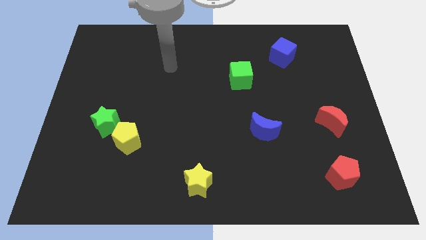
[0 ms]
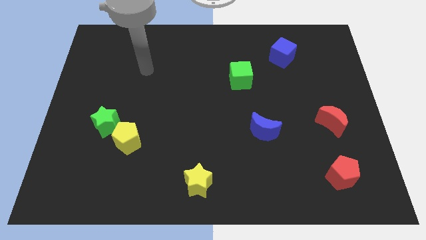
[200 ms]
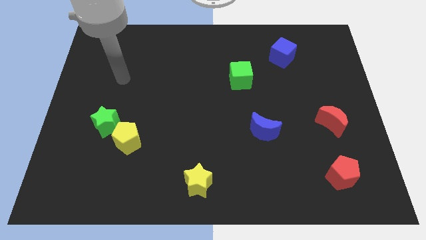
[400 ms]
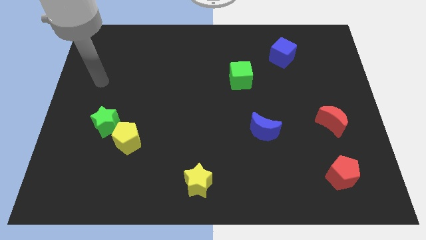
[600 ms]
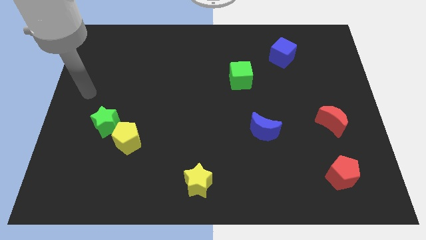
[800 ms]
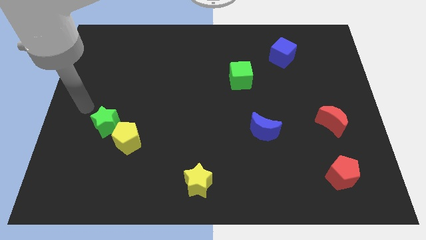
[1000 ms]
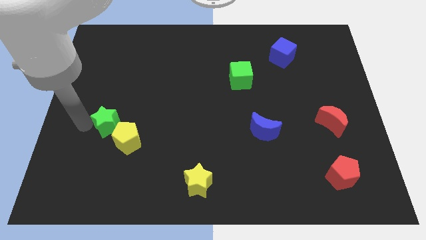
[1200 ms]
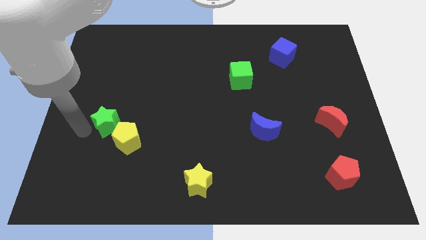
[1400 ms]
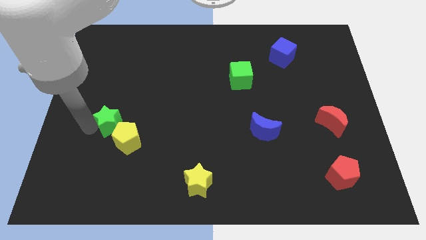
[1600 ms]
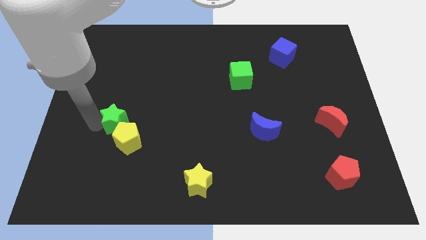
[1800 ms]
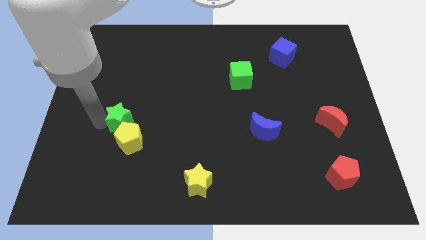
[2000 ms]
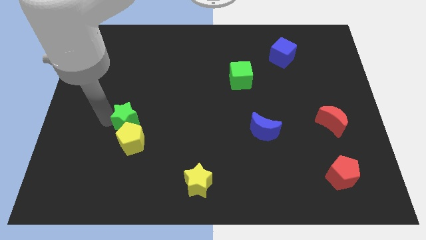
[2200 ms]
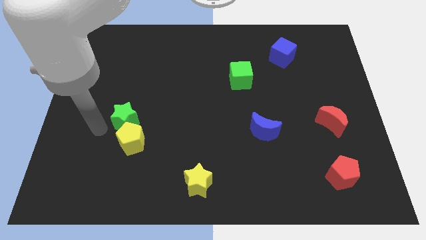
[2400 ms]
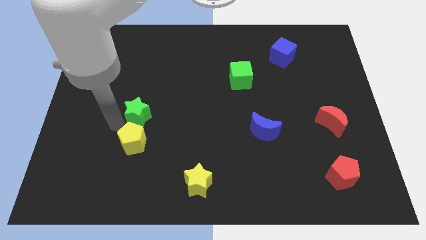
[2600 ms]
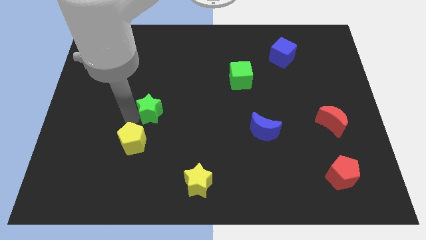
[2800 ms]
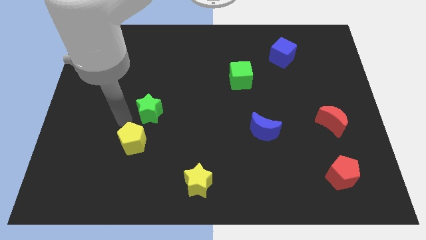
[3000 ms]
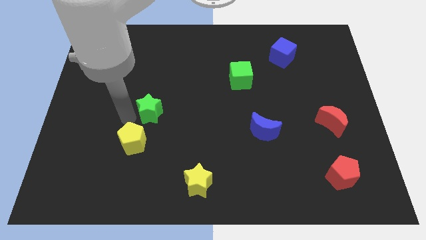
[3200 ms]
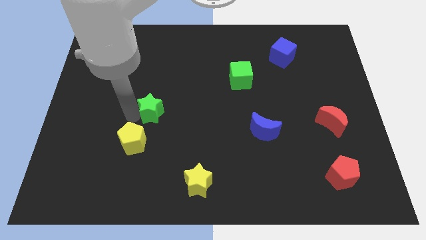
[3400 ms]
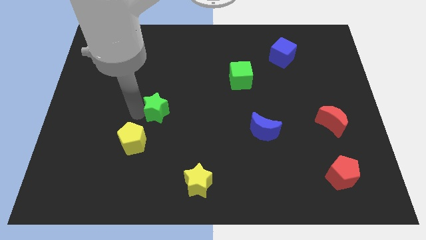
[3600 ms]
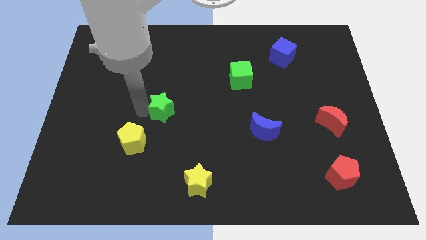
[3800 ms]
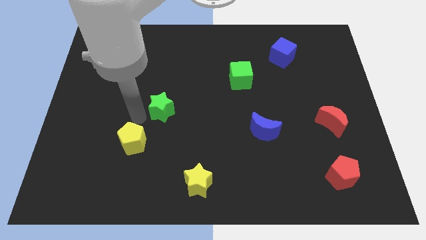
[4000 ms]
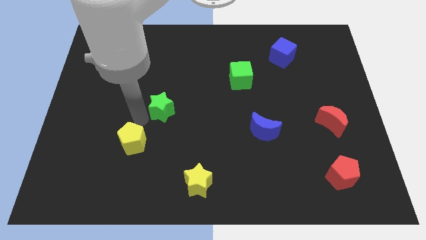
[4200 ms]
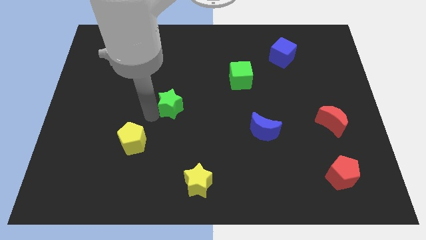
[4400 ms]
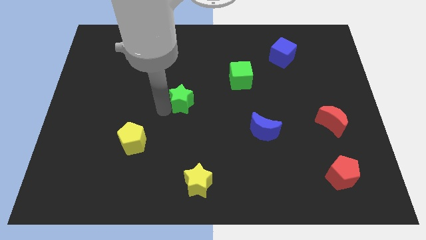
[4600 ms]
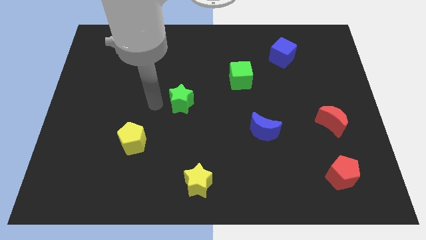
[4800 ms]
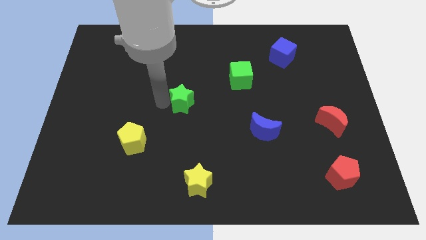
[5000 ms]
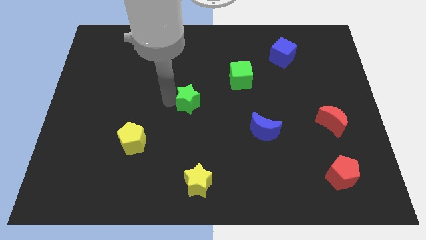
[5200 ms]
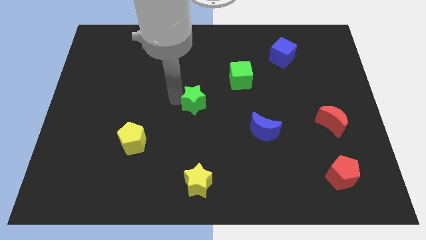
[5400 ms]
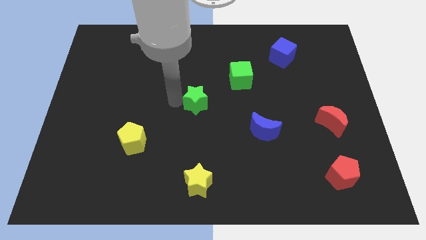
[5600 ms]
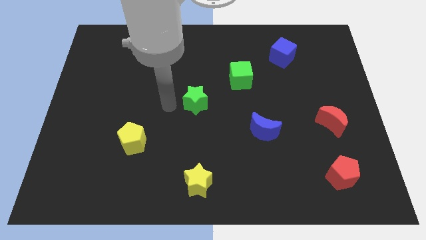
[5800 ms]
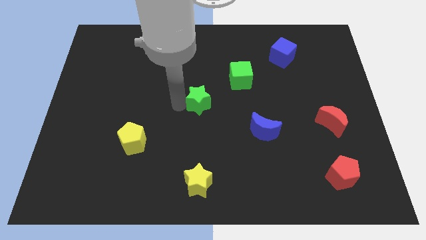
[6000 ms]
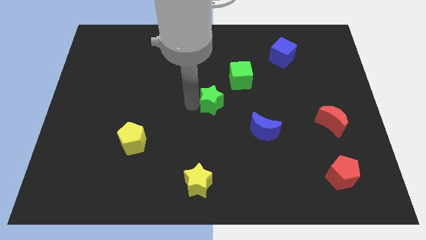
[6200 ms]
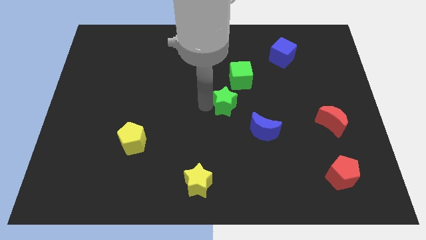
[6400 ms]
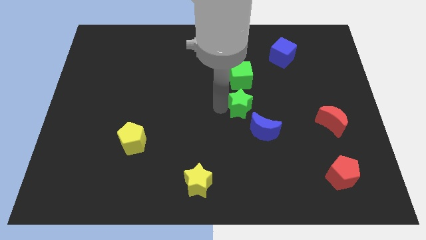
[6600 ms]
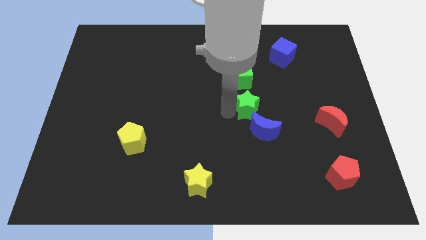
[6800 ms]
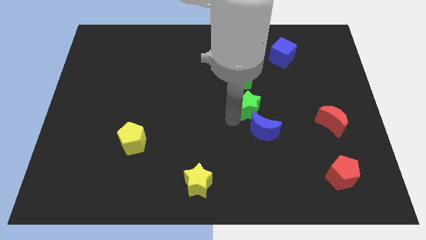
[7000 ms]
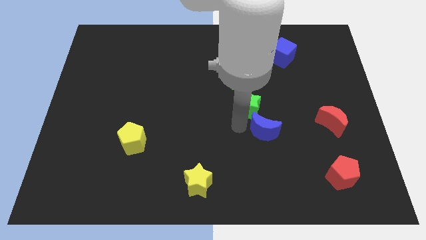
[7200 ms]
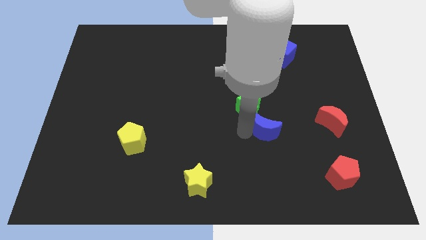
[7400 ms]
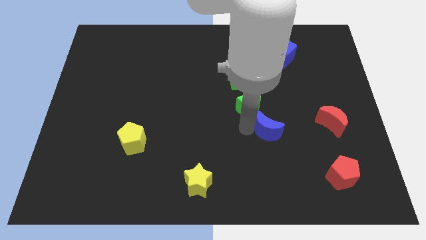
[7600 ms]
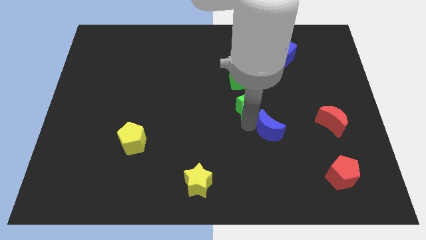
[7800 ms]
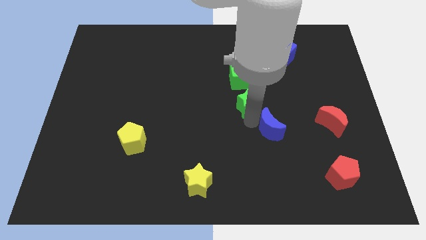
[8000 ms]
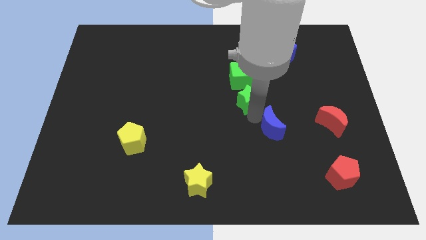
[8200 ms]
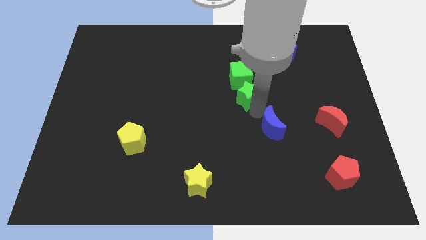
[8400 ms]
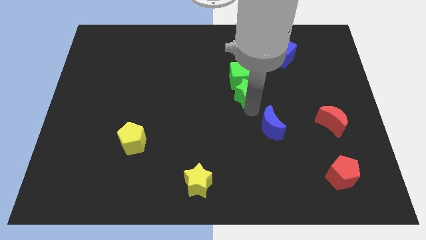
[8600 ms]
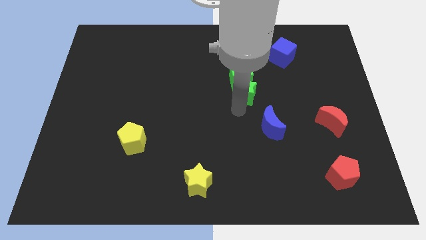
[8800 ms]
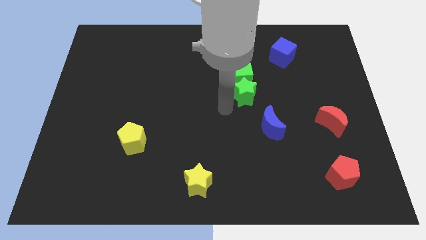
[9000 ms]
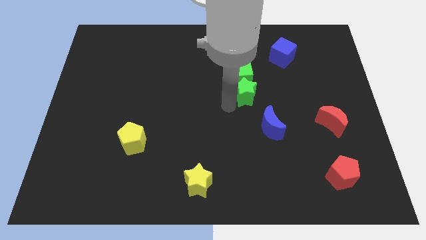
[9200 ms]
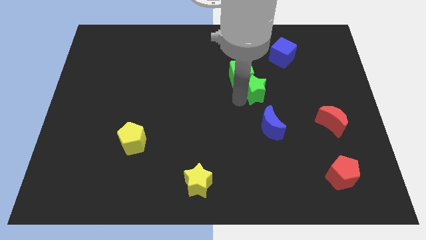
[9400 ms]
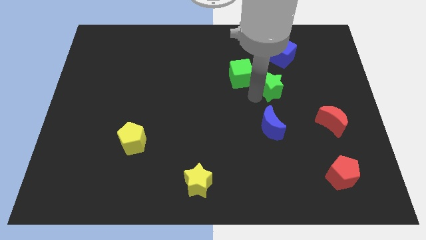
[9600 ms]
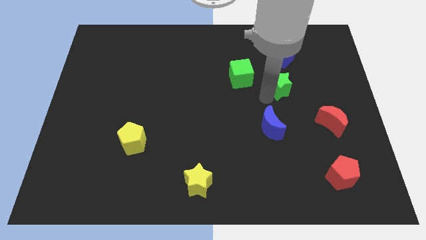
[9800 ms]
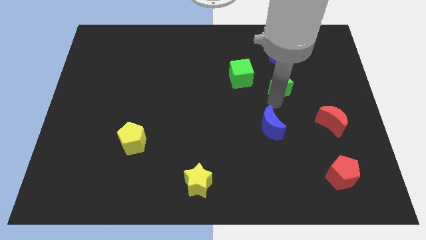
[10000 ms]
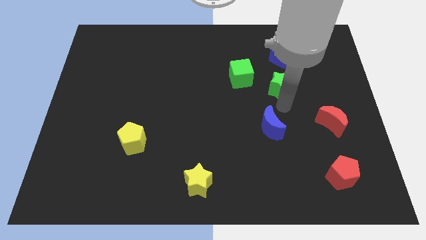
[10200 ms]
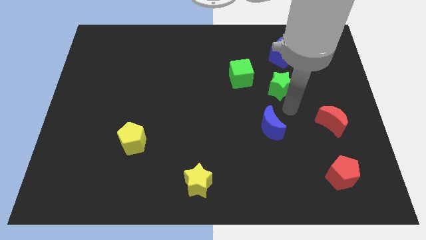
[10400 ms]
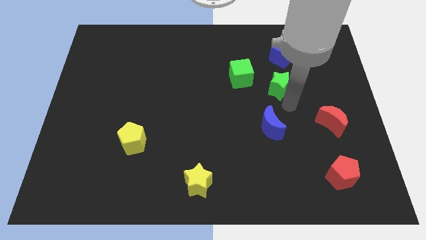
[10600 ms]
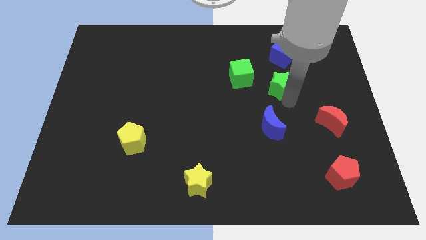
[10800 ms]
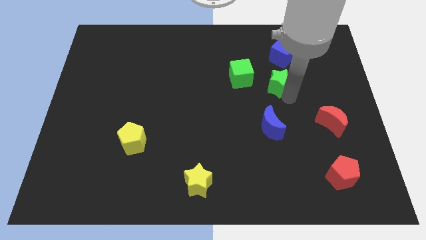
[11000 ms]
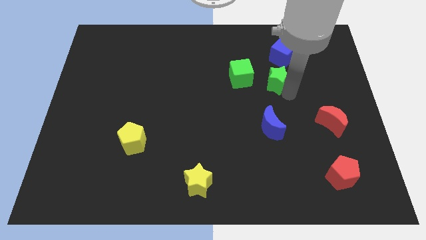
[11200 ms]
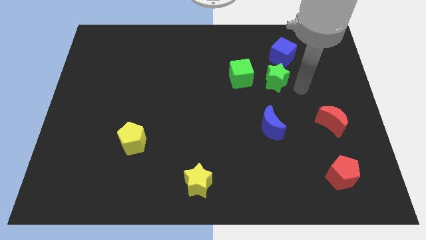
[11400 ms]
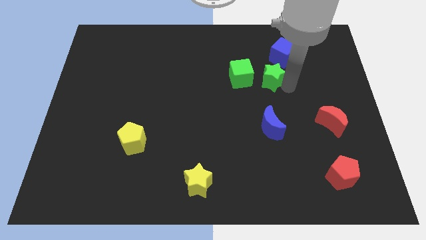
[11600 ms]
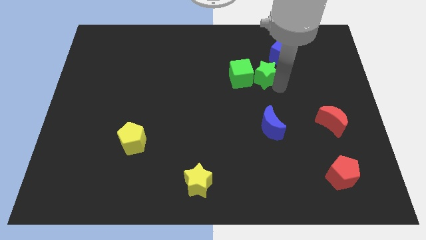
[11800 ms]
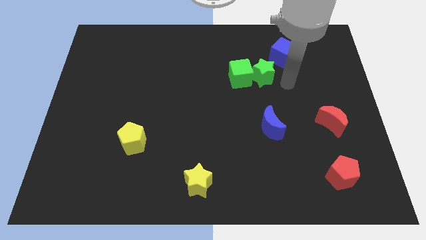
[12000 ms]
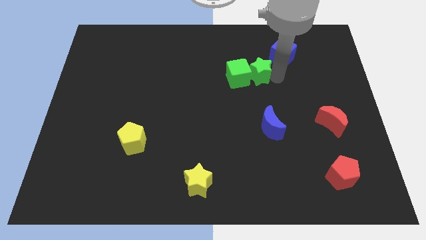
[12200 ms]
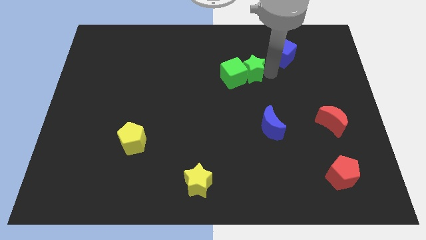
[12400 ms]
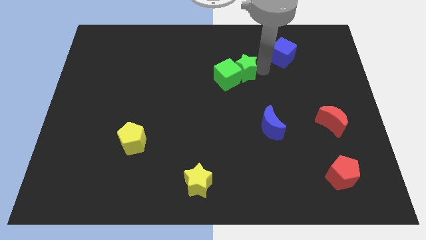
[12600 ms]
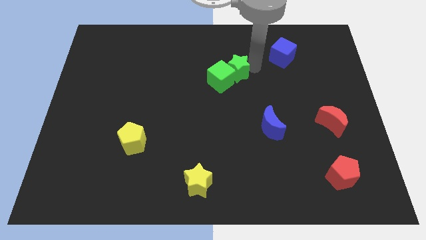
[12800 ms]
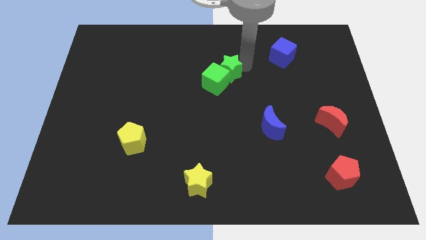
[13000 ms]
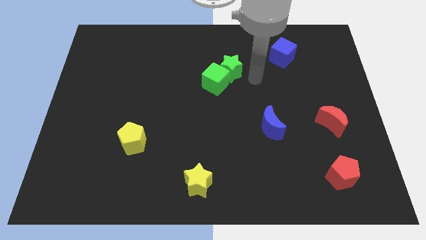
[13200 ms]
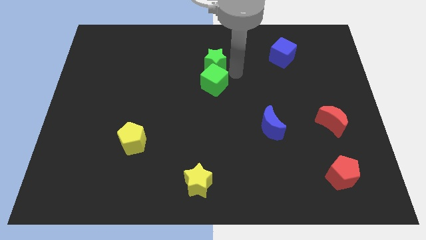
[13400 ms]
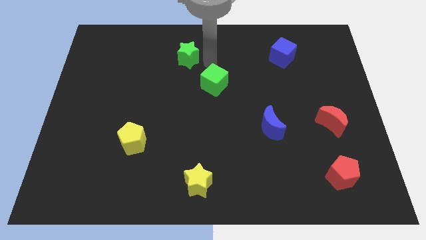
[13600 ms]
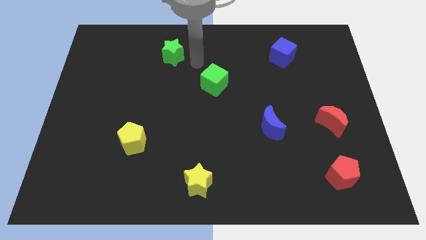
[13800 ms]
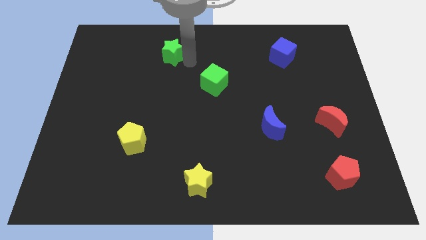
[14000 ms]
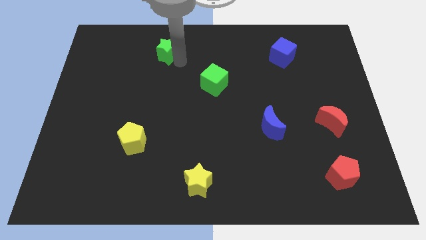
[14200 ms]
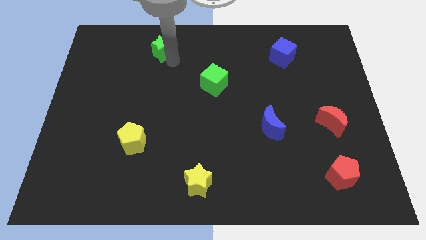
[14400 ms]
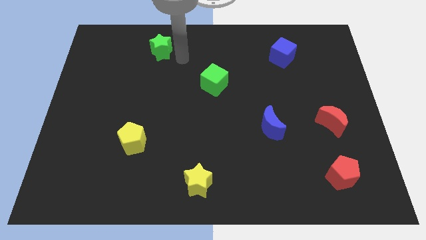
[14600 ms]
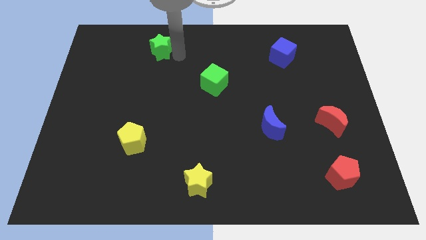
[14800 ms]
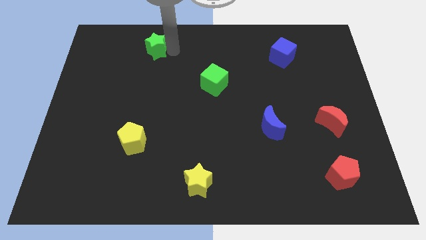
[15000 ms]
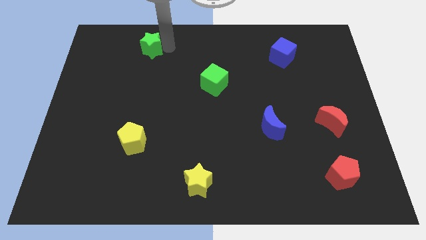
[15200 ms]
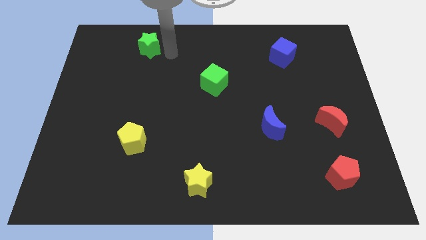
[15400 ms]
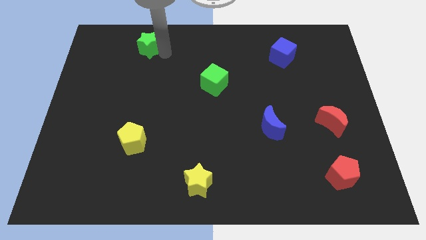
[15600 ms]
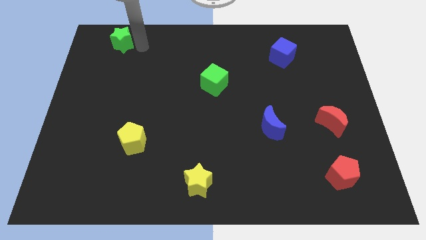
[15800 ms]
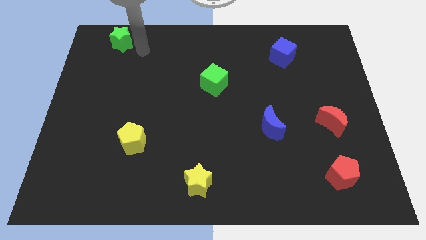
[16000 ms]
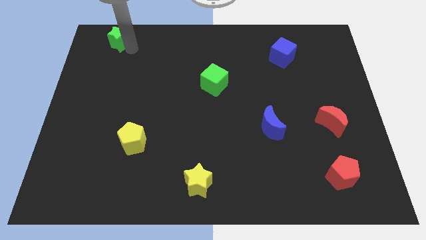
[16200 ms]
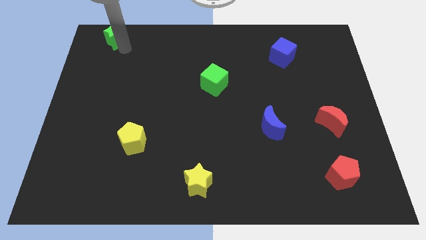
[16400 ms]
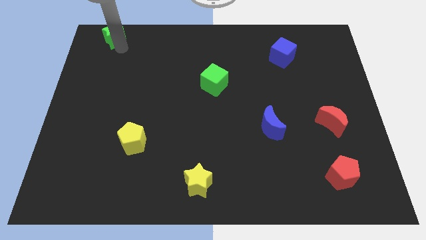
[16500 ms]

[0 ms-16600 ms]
put the green star to the top left corner
